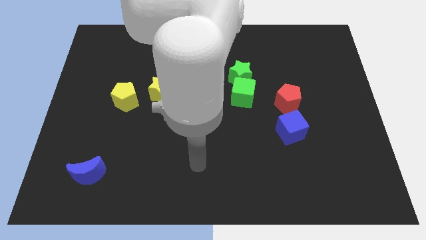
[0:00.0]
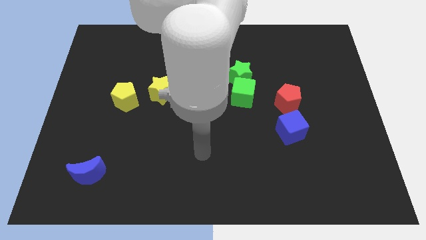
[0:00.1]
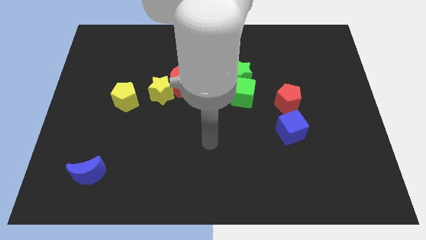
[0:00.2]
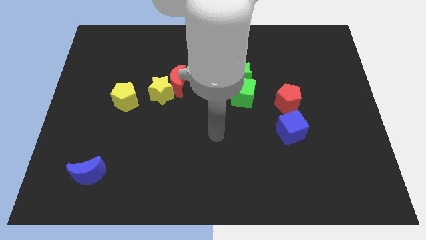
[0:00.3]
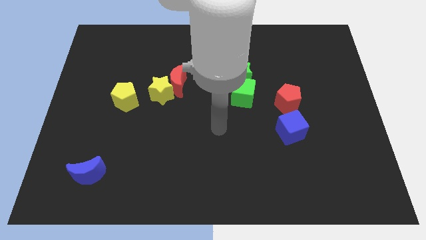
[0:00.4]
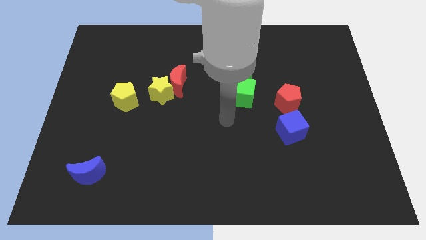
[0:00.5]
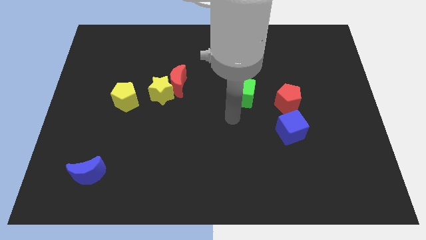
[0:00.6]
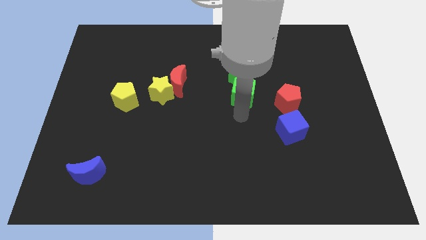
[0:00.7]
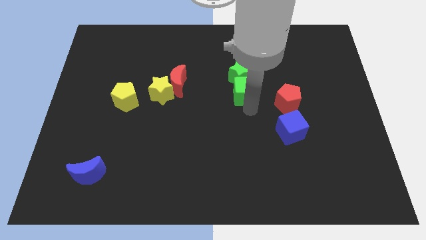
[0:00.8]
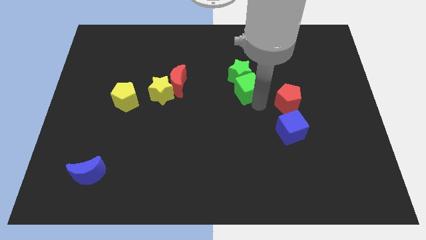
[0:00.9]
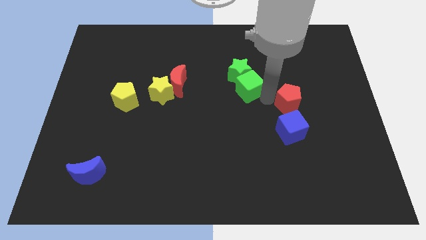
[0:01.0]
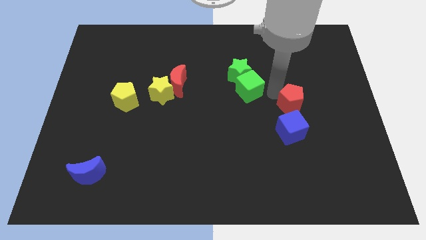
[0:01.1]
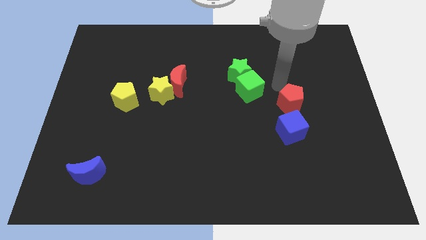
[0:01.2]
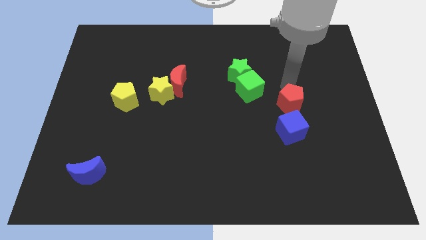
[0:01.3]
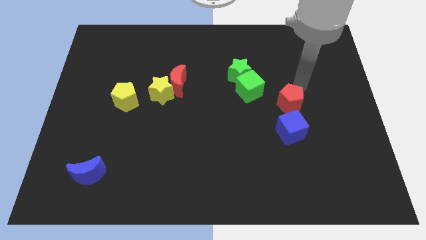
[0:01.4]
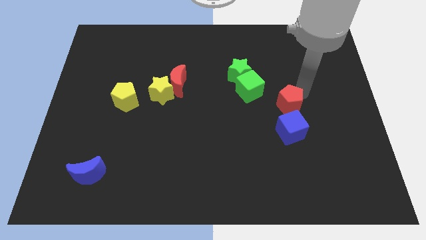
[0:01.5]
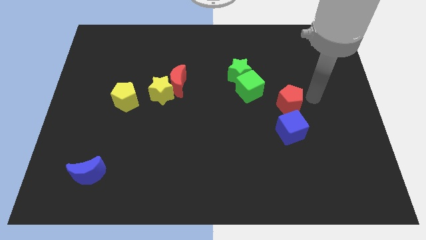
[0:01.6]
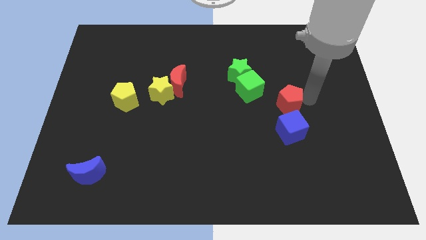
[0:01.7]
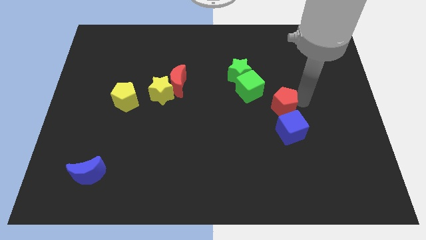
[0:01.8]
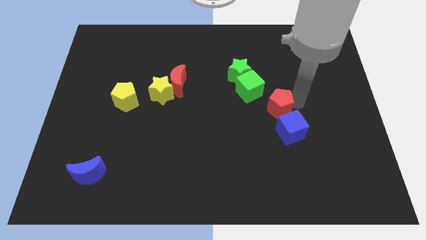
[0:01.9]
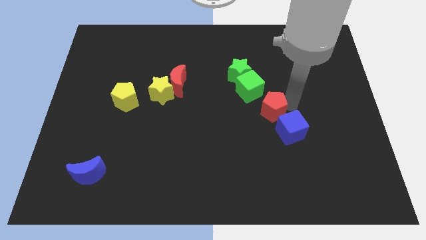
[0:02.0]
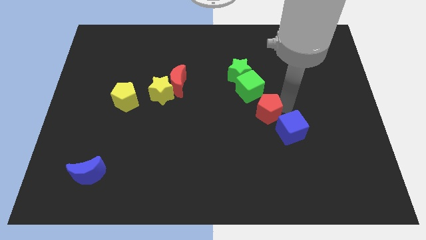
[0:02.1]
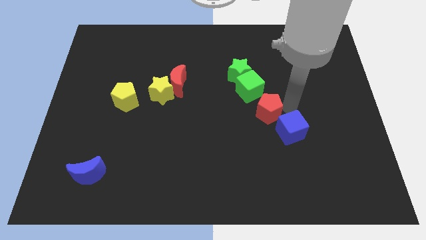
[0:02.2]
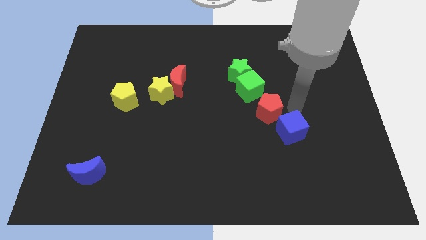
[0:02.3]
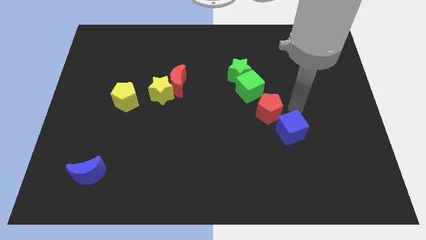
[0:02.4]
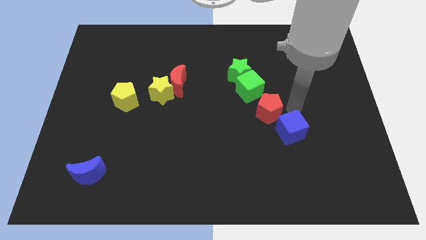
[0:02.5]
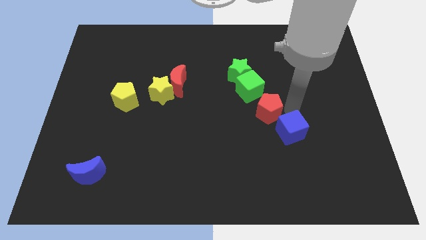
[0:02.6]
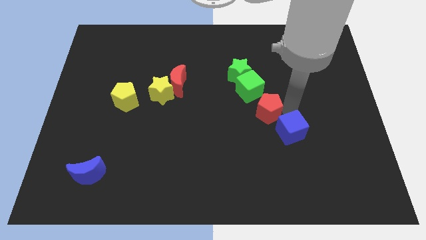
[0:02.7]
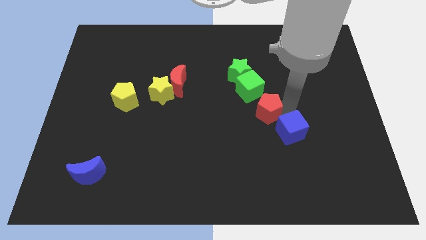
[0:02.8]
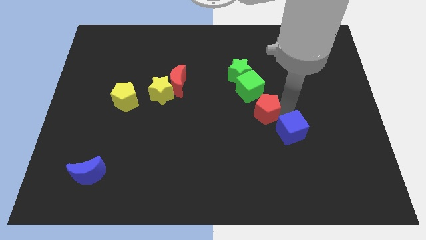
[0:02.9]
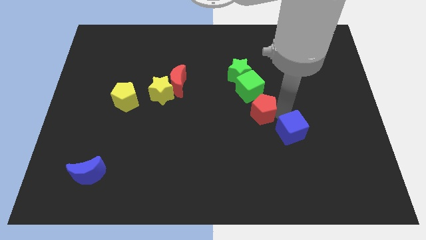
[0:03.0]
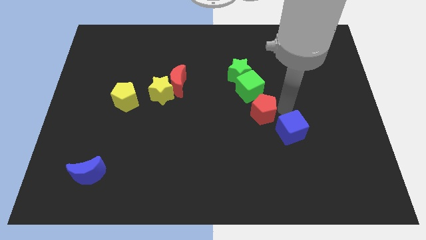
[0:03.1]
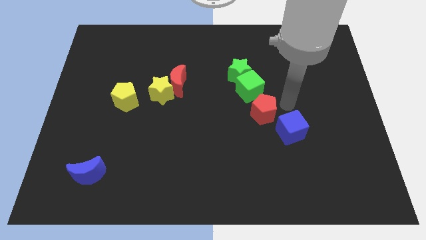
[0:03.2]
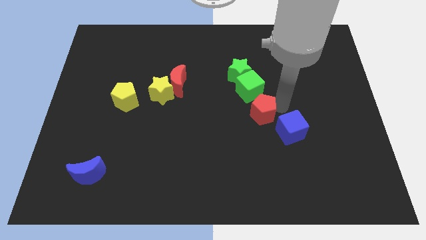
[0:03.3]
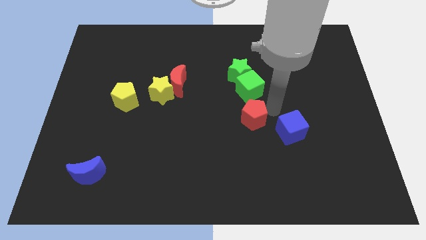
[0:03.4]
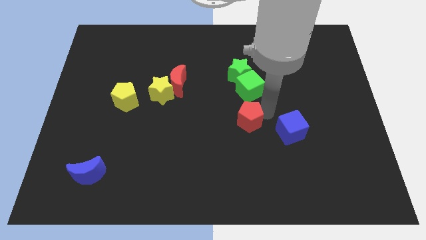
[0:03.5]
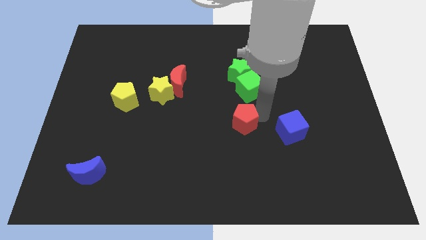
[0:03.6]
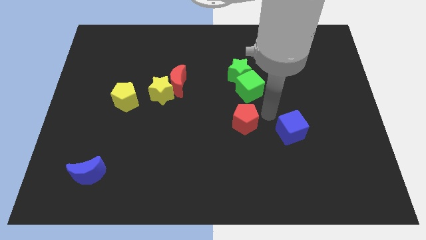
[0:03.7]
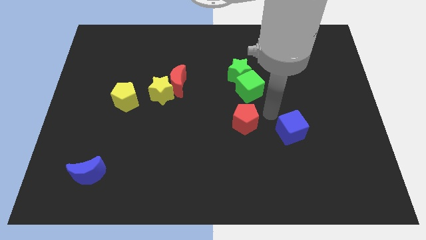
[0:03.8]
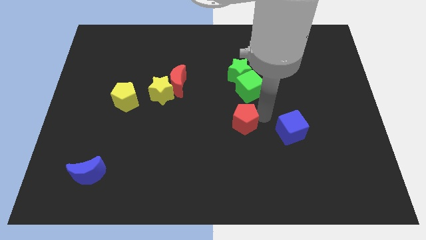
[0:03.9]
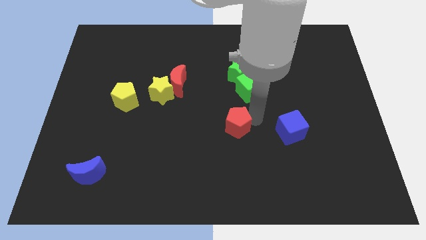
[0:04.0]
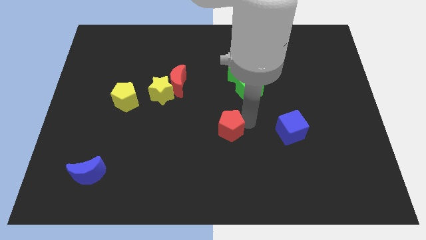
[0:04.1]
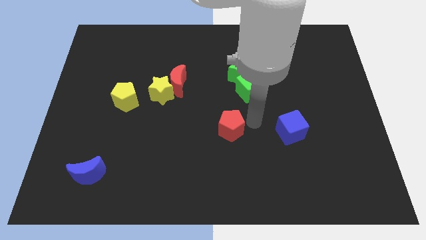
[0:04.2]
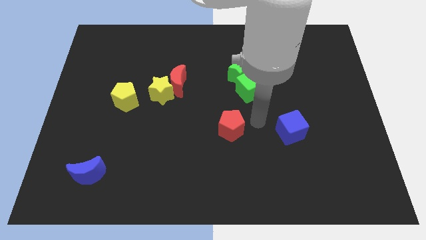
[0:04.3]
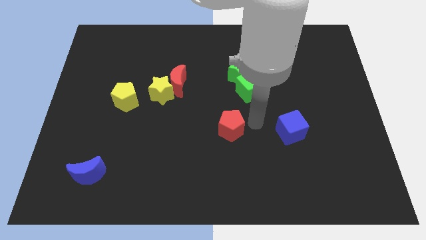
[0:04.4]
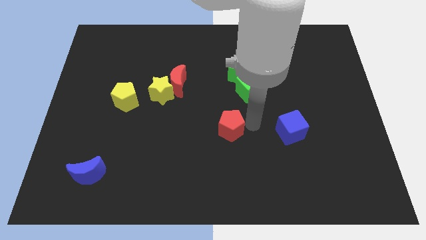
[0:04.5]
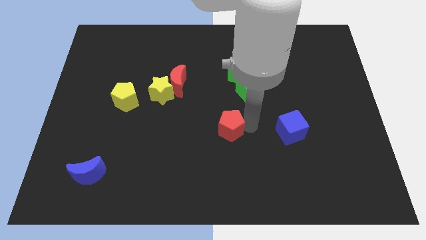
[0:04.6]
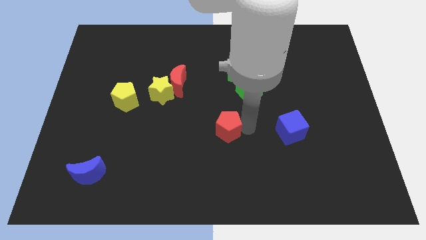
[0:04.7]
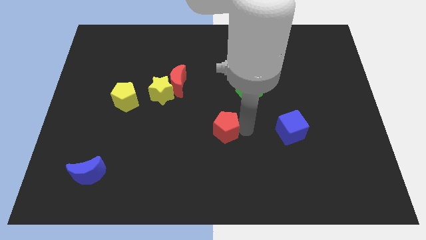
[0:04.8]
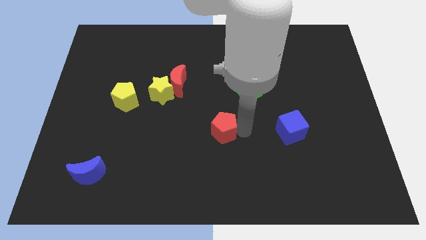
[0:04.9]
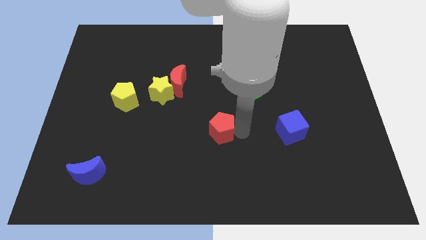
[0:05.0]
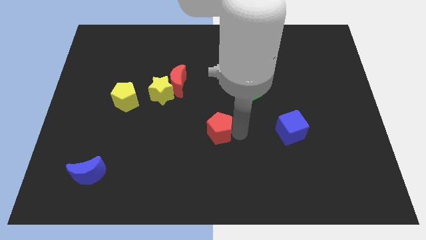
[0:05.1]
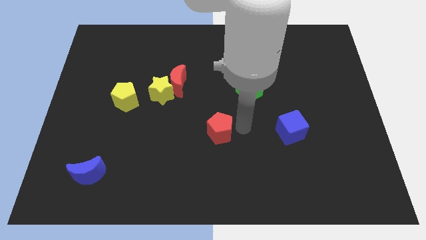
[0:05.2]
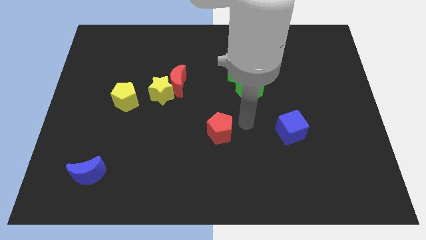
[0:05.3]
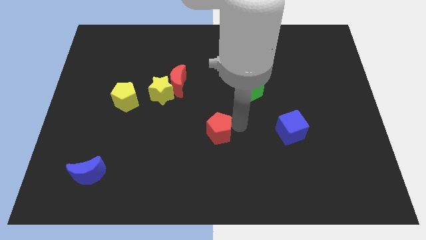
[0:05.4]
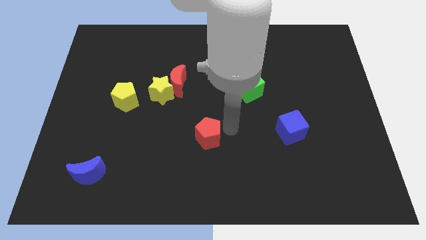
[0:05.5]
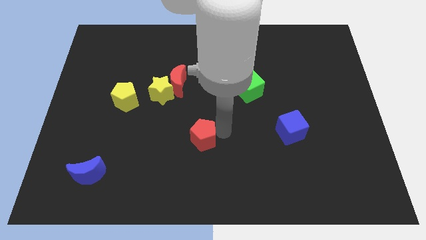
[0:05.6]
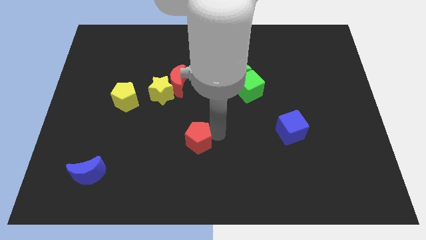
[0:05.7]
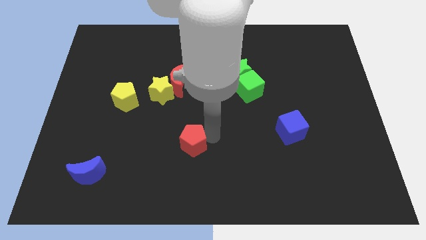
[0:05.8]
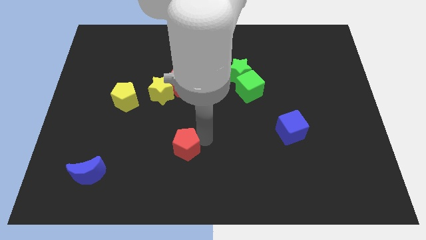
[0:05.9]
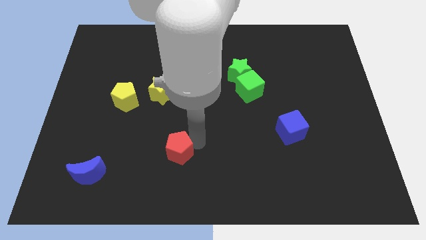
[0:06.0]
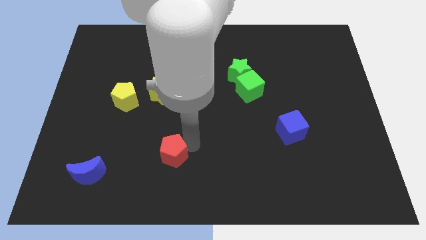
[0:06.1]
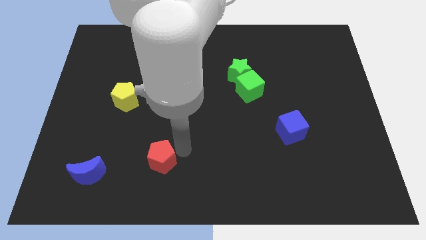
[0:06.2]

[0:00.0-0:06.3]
move the red pentagon just right of the blue moon
